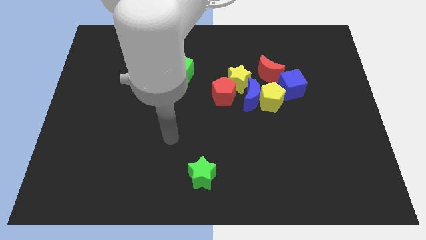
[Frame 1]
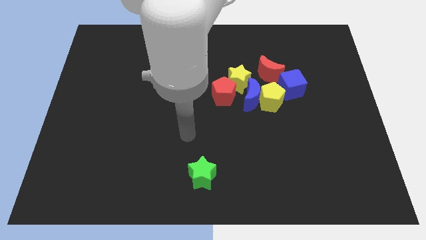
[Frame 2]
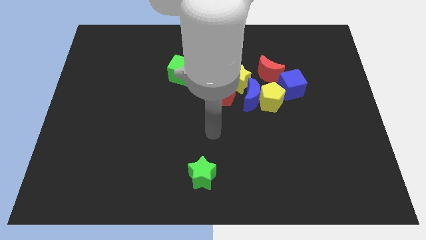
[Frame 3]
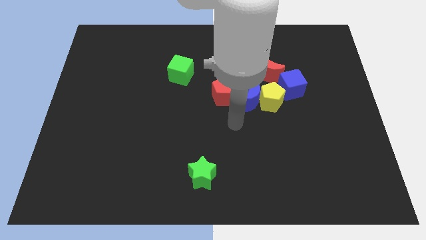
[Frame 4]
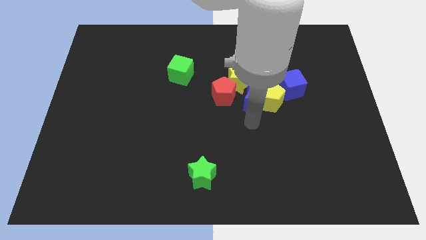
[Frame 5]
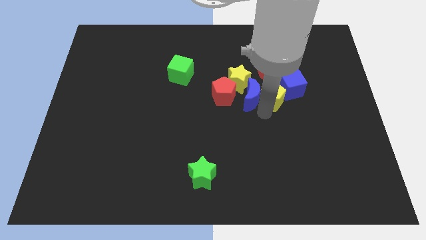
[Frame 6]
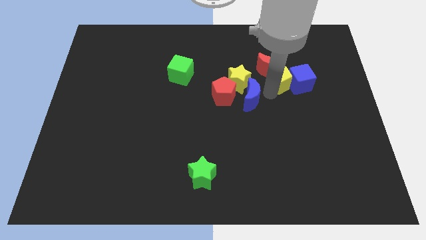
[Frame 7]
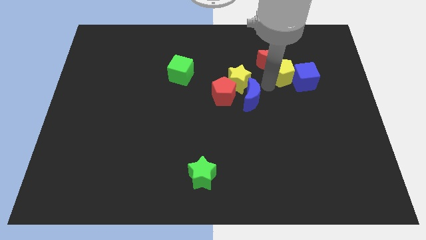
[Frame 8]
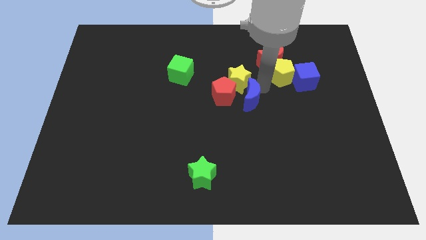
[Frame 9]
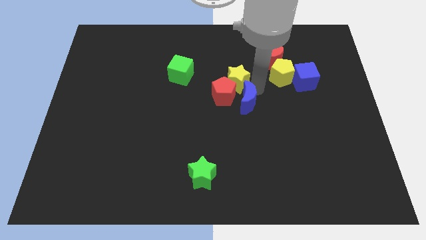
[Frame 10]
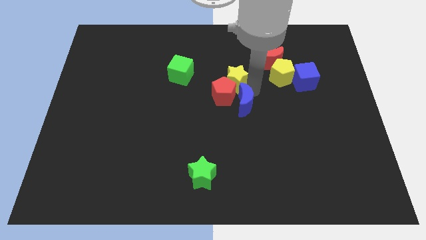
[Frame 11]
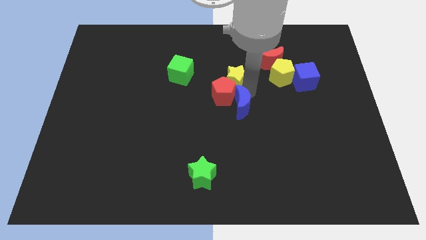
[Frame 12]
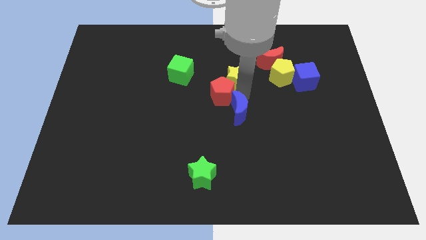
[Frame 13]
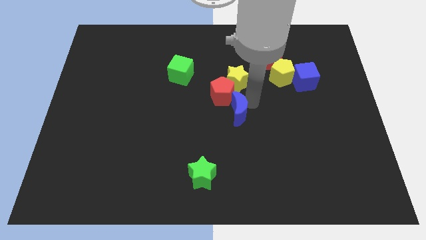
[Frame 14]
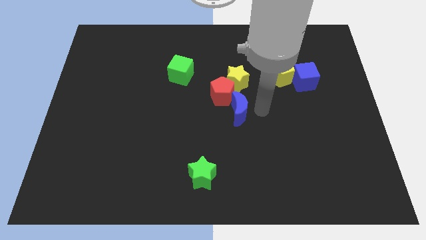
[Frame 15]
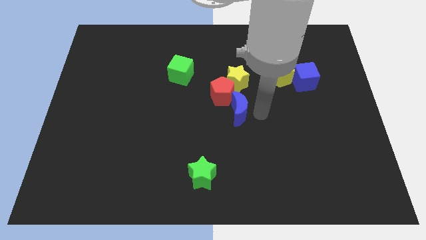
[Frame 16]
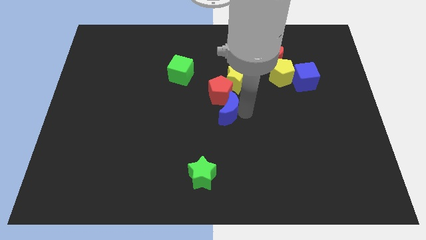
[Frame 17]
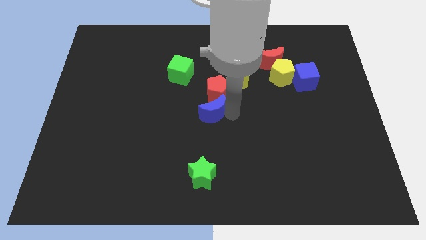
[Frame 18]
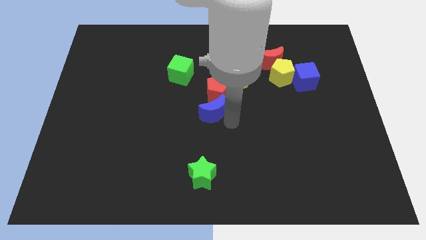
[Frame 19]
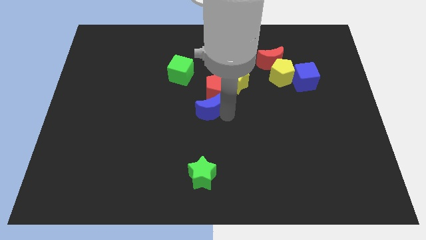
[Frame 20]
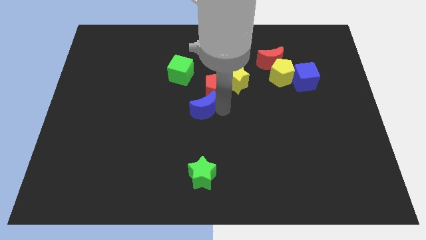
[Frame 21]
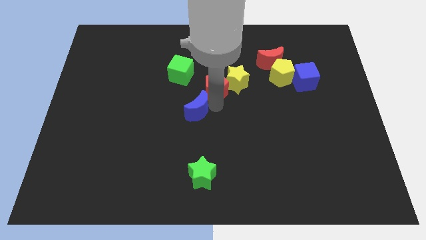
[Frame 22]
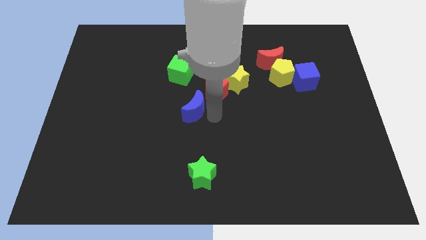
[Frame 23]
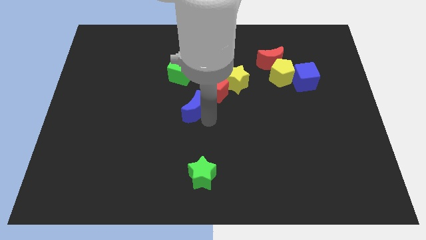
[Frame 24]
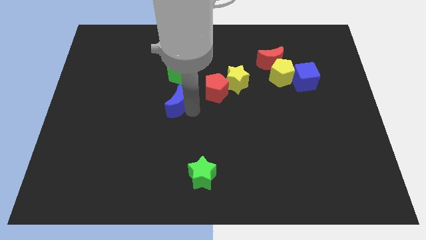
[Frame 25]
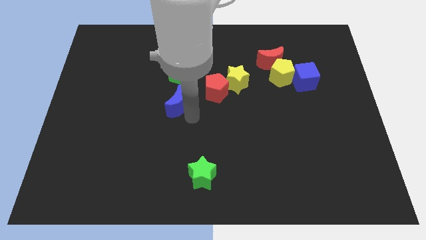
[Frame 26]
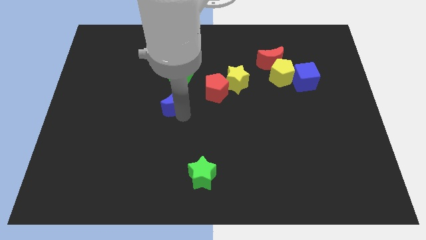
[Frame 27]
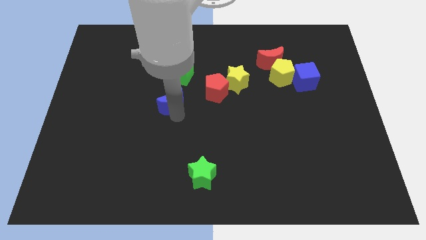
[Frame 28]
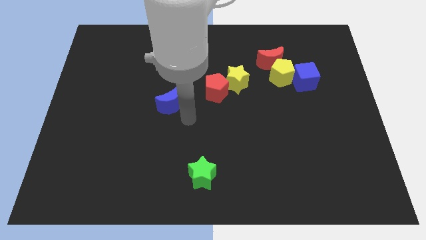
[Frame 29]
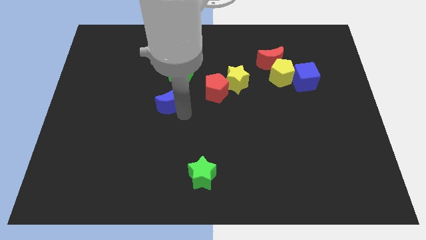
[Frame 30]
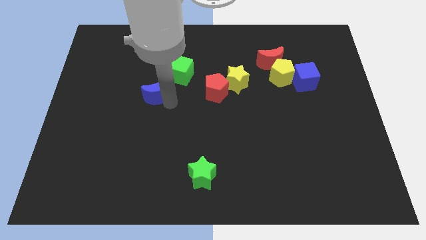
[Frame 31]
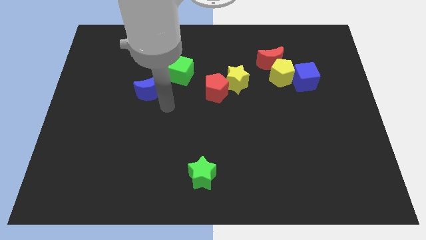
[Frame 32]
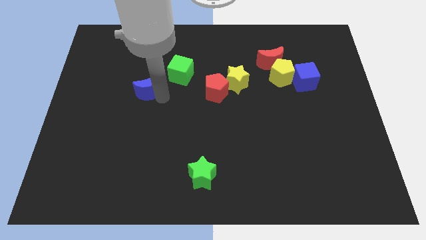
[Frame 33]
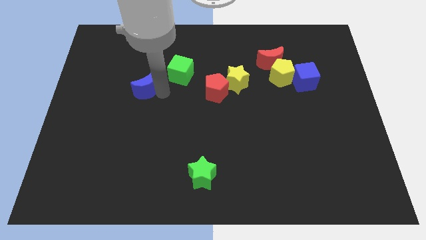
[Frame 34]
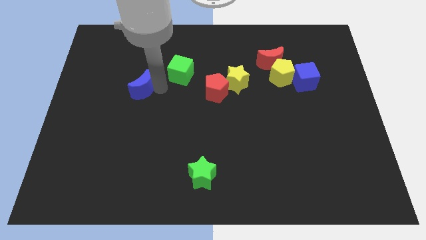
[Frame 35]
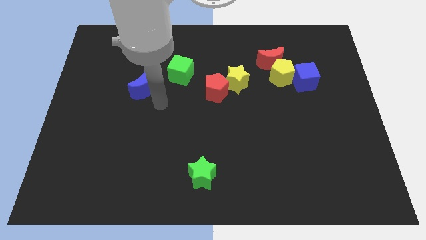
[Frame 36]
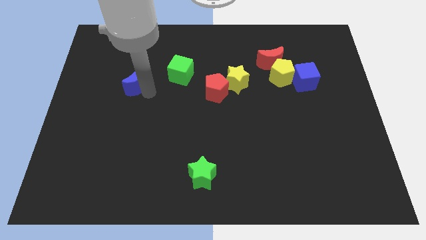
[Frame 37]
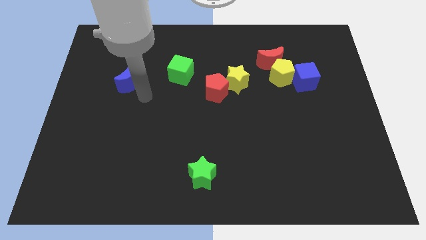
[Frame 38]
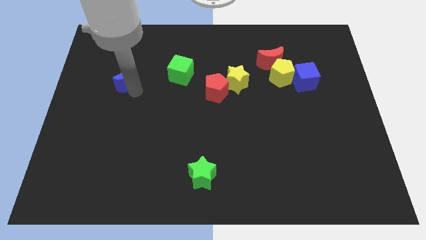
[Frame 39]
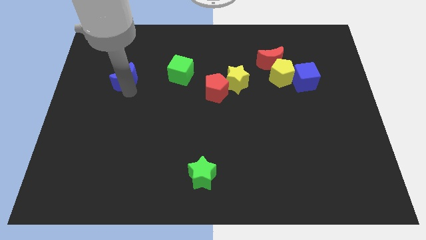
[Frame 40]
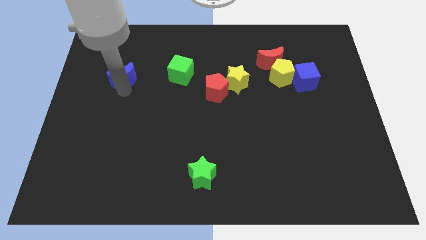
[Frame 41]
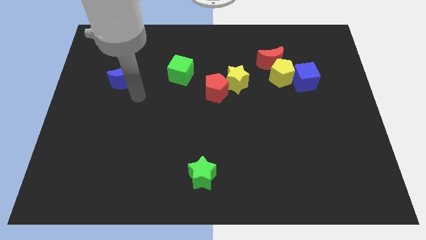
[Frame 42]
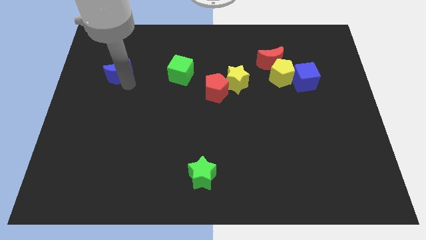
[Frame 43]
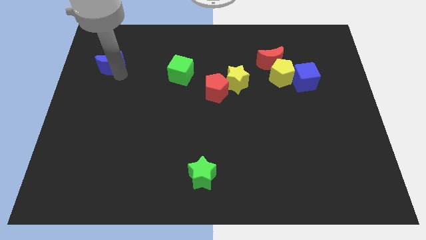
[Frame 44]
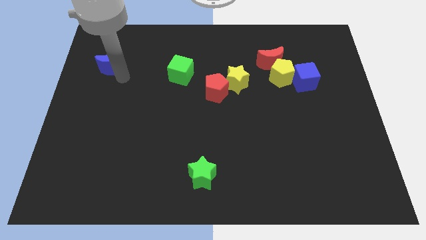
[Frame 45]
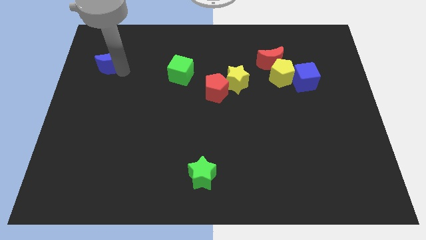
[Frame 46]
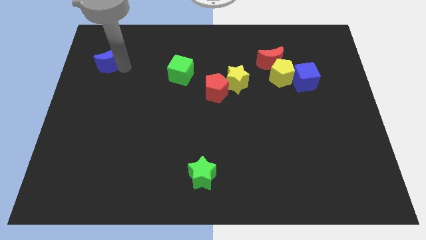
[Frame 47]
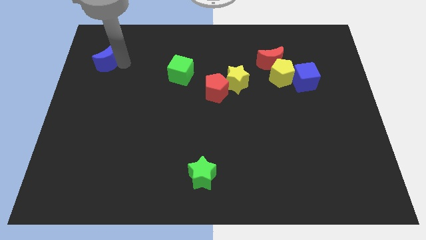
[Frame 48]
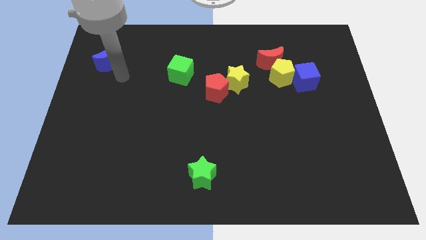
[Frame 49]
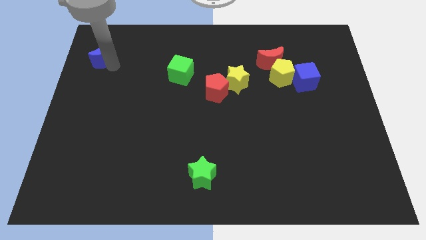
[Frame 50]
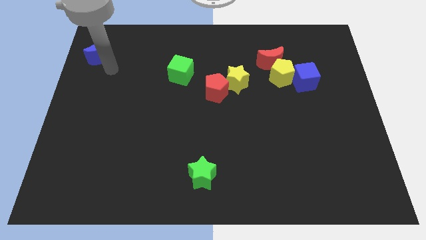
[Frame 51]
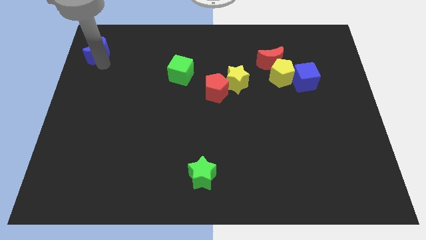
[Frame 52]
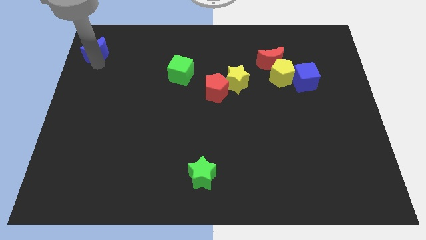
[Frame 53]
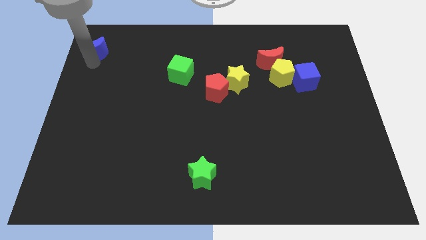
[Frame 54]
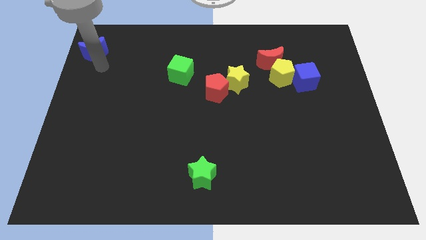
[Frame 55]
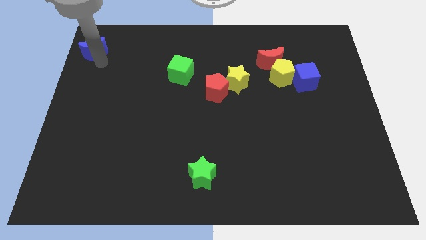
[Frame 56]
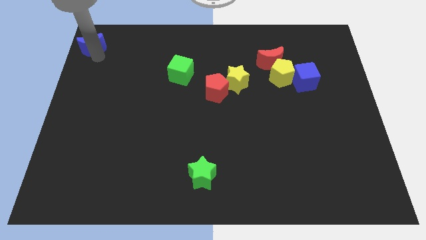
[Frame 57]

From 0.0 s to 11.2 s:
slide the blue moon to the top left

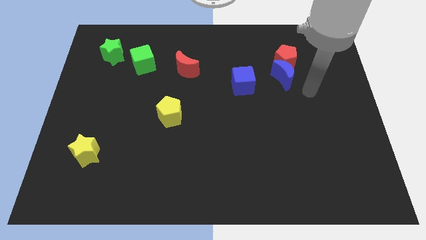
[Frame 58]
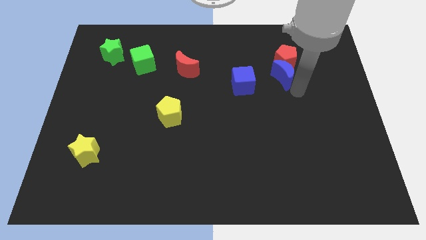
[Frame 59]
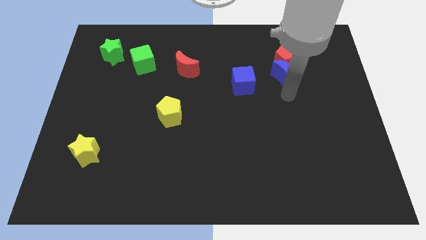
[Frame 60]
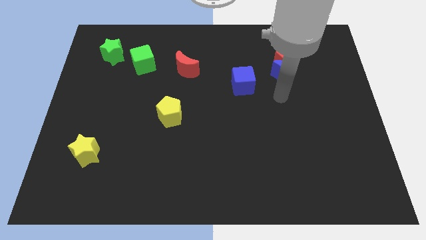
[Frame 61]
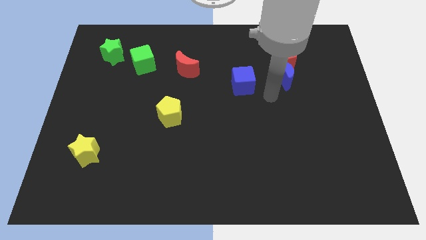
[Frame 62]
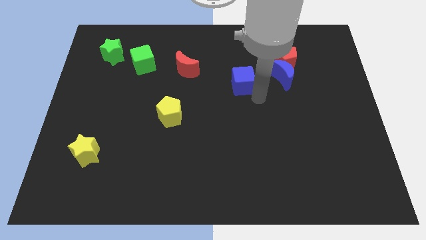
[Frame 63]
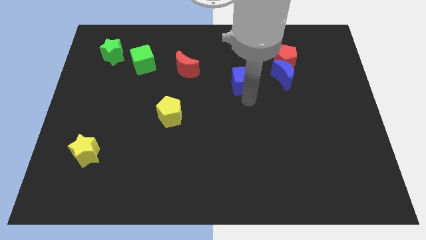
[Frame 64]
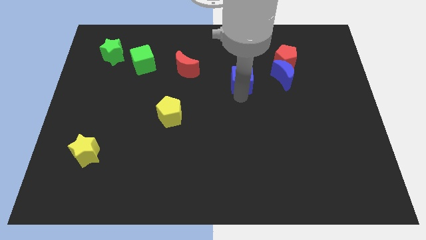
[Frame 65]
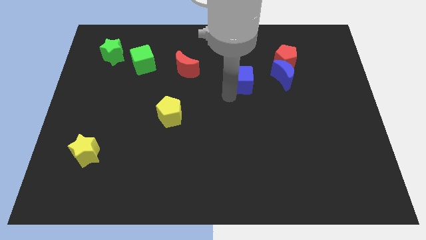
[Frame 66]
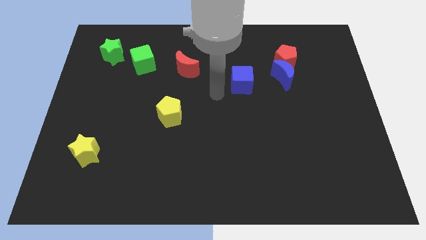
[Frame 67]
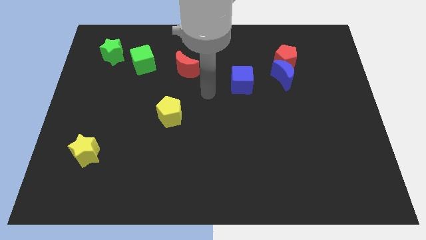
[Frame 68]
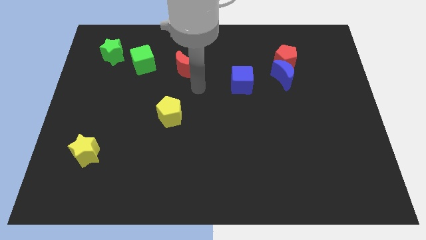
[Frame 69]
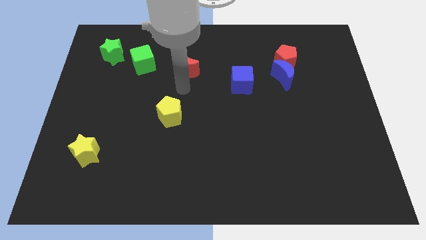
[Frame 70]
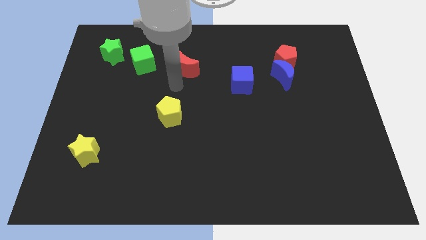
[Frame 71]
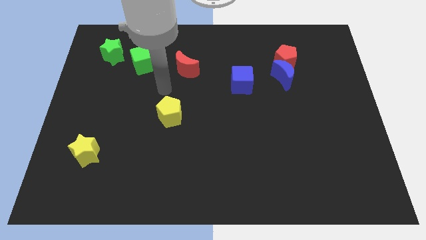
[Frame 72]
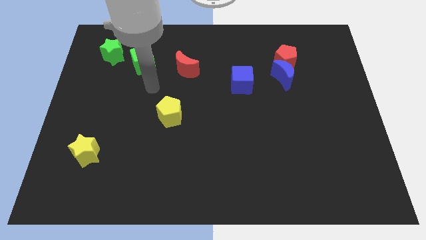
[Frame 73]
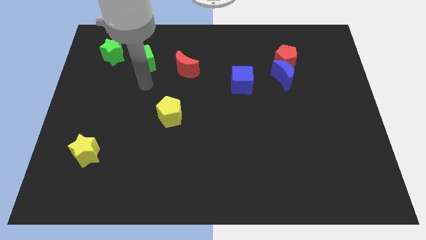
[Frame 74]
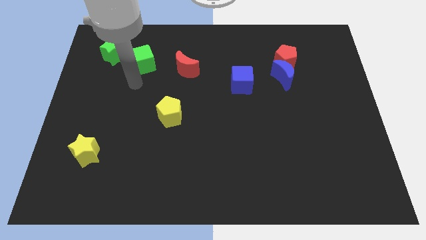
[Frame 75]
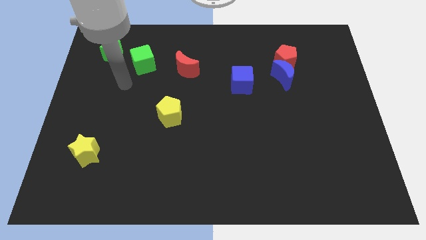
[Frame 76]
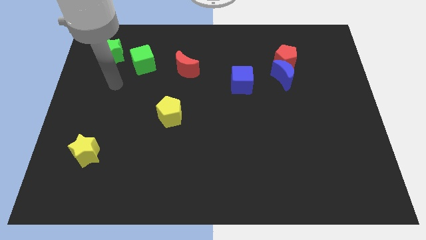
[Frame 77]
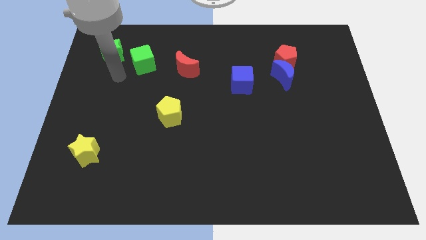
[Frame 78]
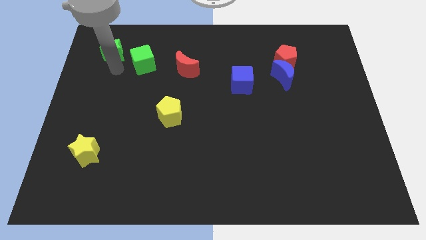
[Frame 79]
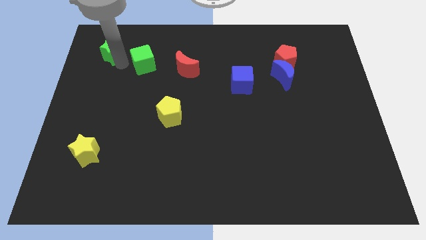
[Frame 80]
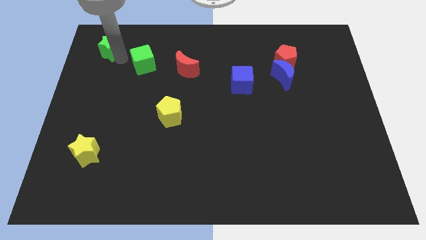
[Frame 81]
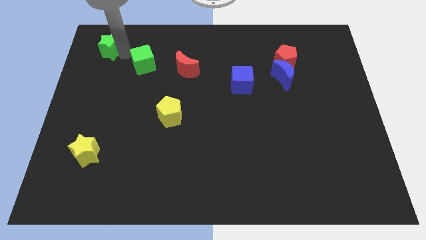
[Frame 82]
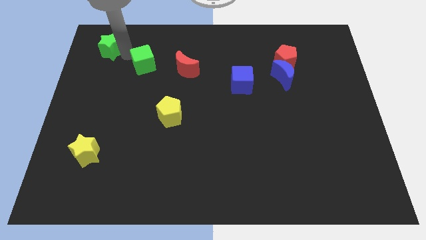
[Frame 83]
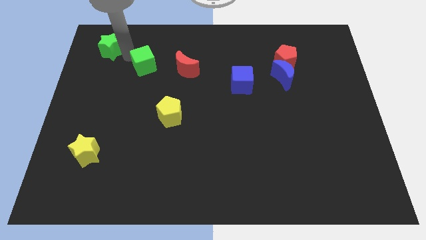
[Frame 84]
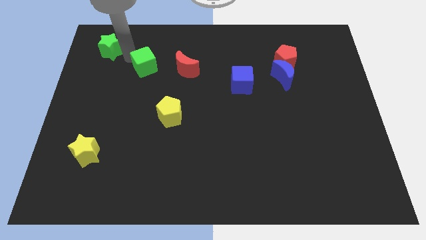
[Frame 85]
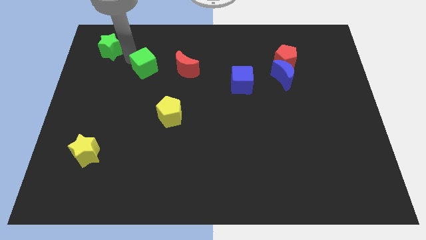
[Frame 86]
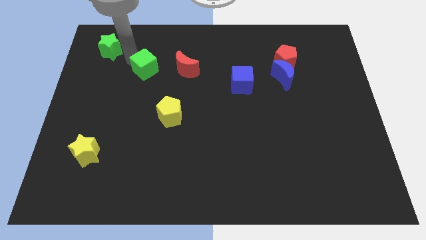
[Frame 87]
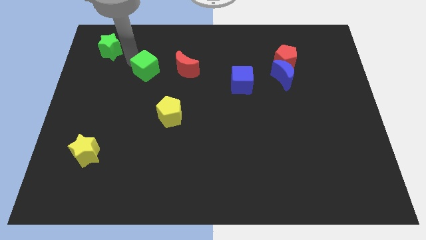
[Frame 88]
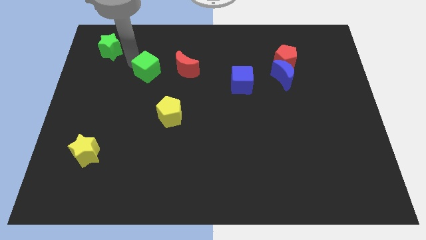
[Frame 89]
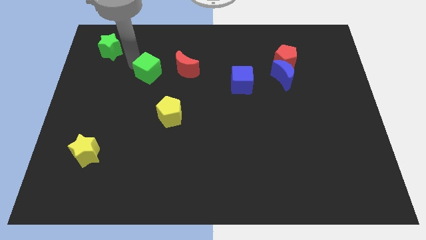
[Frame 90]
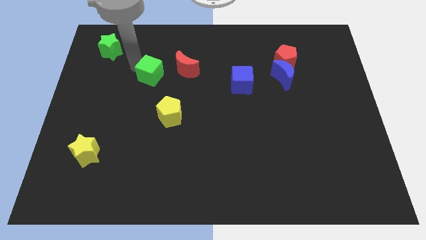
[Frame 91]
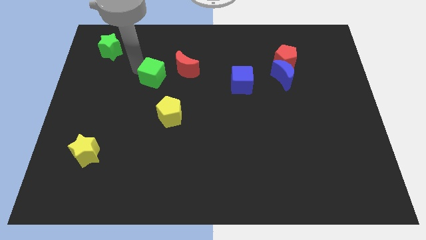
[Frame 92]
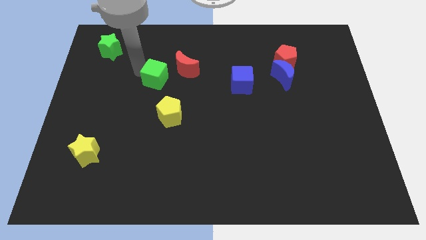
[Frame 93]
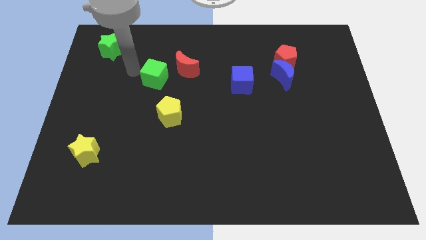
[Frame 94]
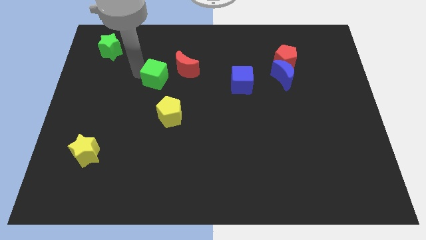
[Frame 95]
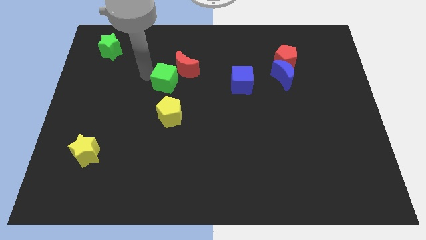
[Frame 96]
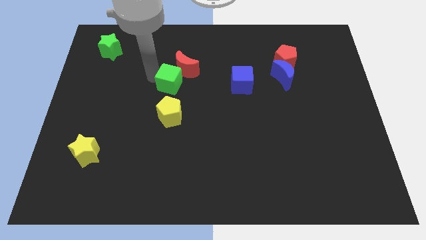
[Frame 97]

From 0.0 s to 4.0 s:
slide the green cube to the center
